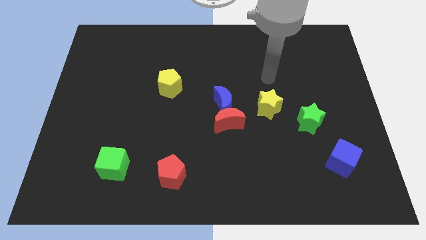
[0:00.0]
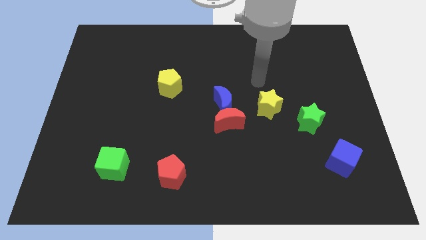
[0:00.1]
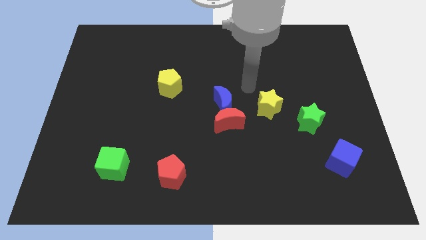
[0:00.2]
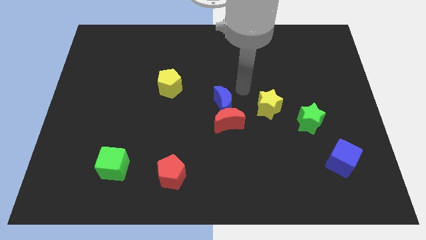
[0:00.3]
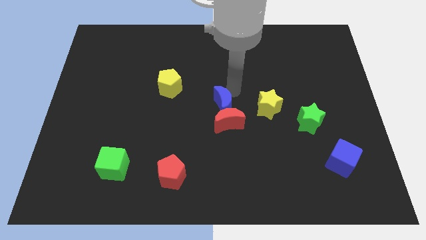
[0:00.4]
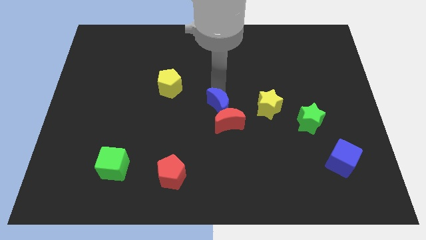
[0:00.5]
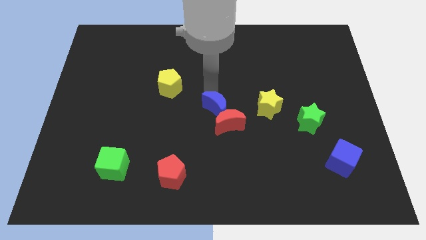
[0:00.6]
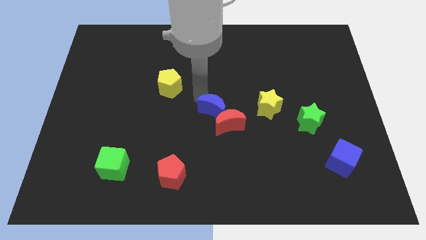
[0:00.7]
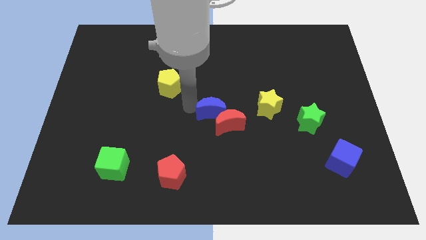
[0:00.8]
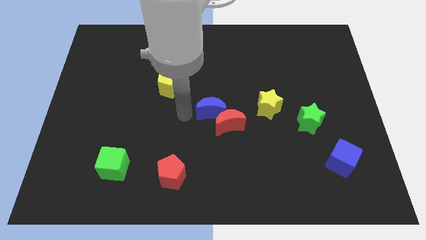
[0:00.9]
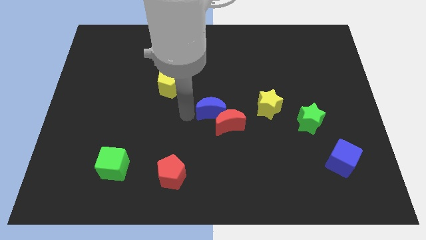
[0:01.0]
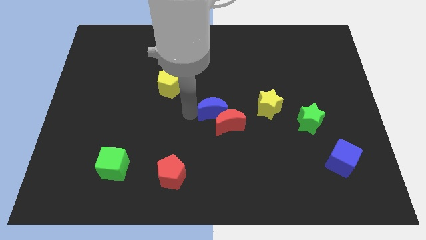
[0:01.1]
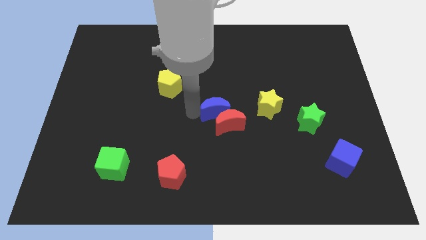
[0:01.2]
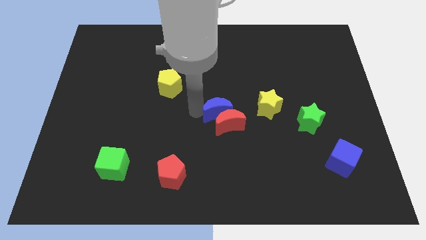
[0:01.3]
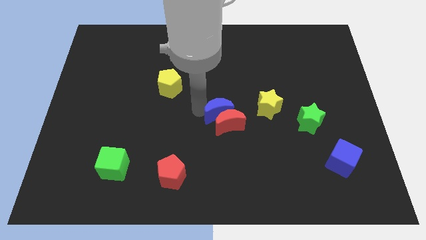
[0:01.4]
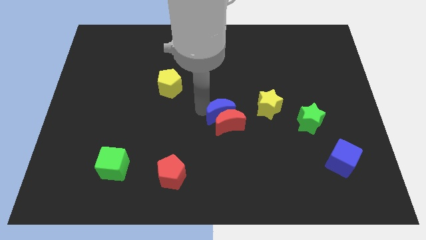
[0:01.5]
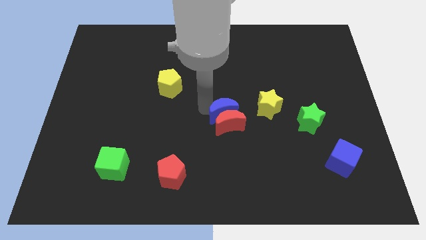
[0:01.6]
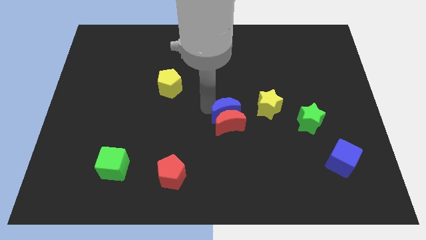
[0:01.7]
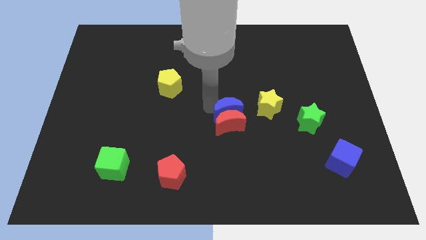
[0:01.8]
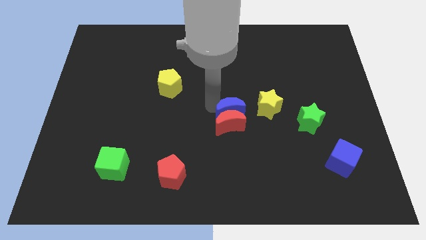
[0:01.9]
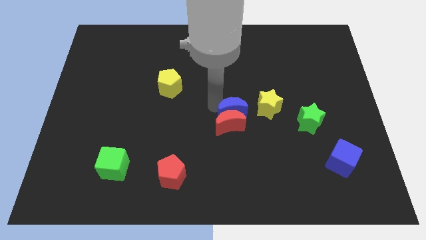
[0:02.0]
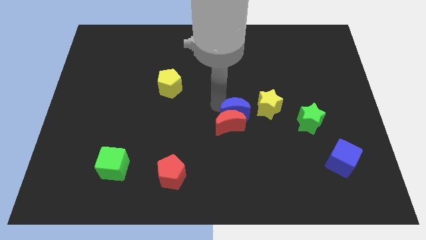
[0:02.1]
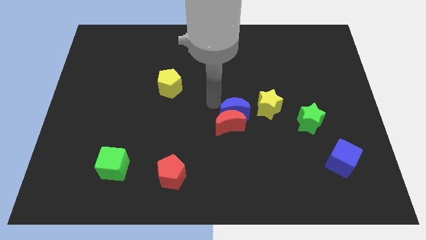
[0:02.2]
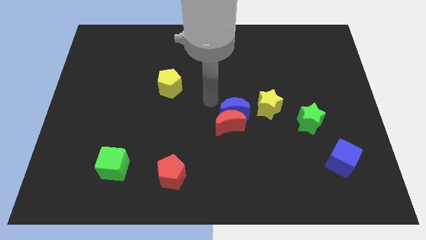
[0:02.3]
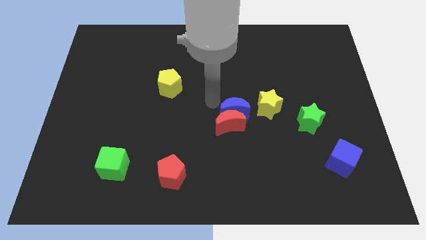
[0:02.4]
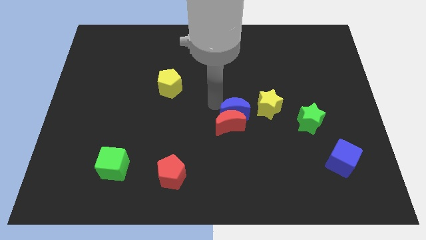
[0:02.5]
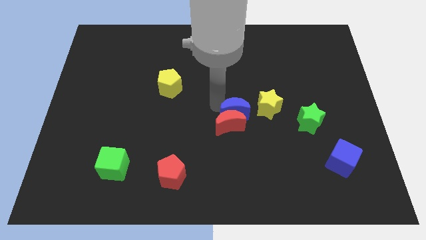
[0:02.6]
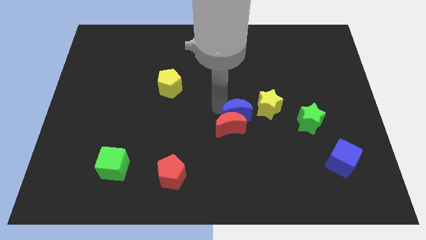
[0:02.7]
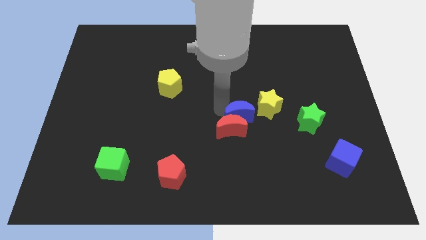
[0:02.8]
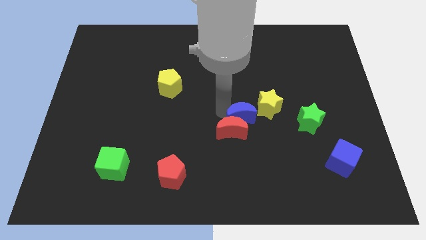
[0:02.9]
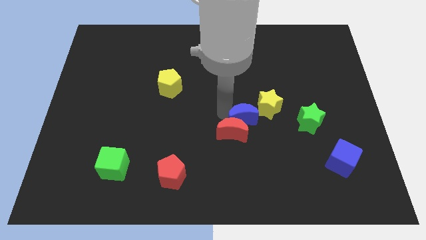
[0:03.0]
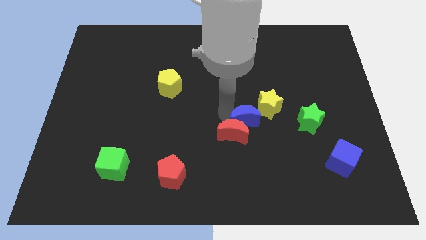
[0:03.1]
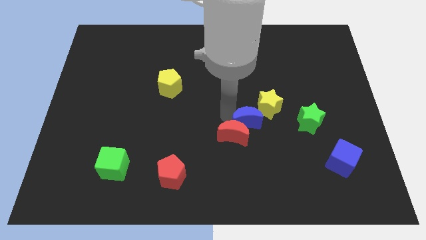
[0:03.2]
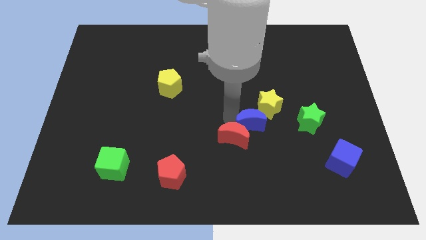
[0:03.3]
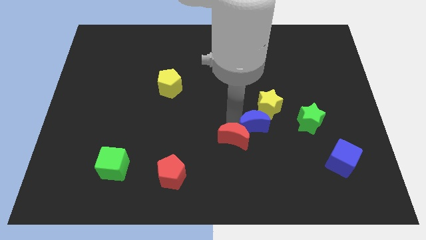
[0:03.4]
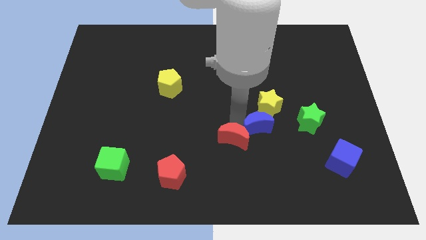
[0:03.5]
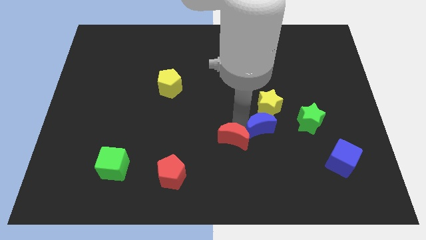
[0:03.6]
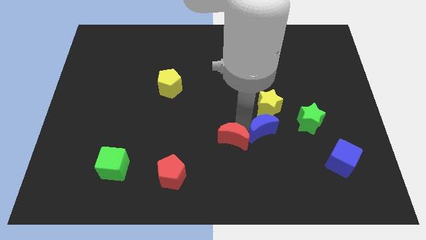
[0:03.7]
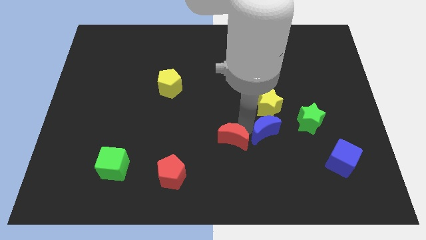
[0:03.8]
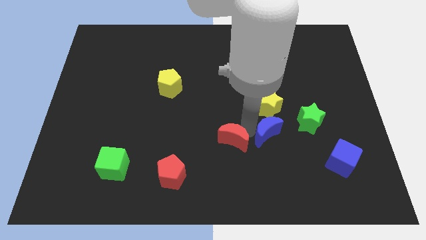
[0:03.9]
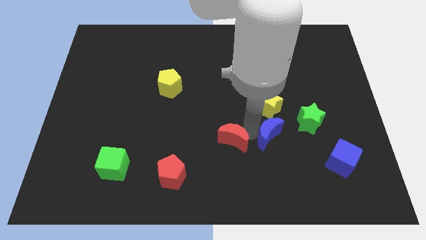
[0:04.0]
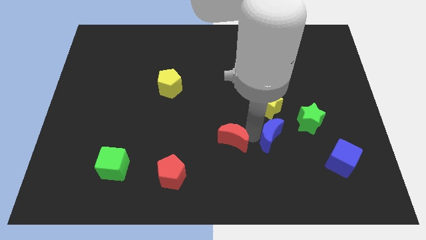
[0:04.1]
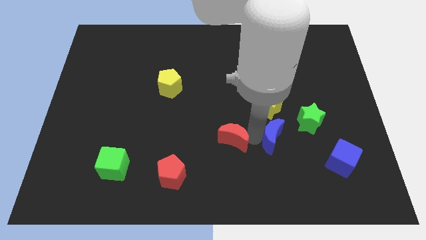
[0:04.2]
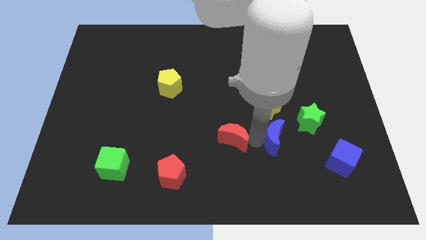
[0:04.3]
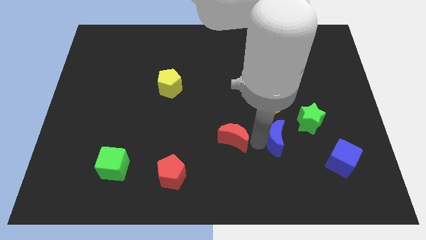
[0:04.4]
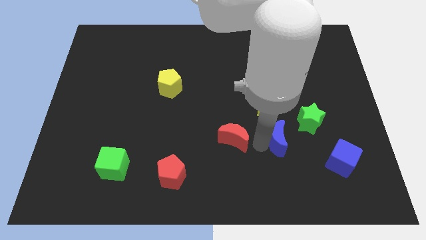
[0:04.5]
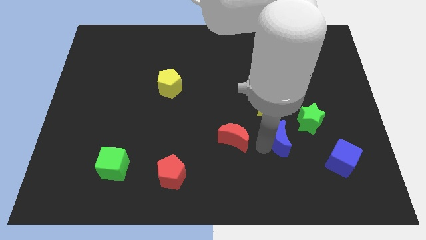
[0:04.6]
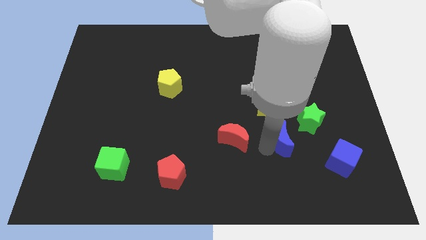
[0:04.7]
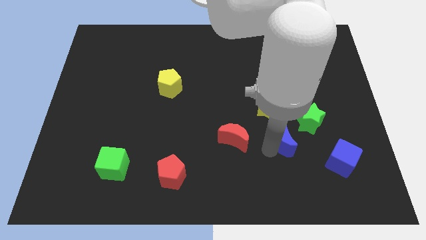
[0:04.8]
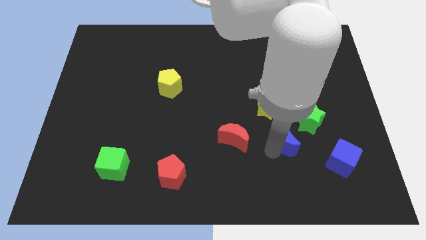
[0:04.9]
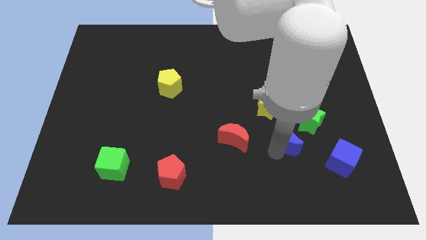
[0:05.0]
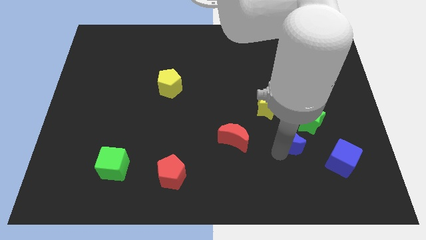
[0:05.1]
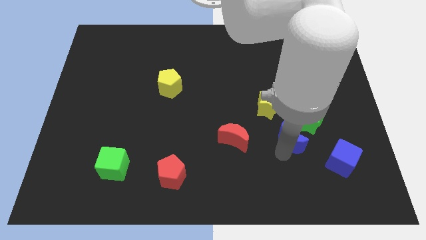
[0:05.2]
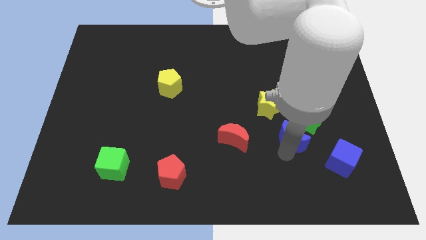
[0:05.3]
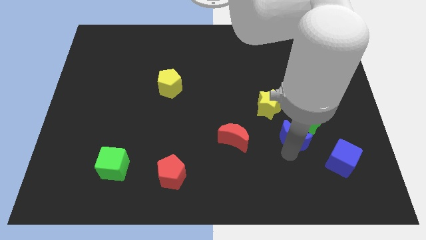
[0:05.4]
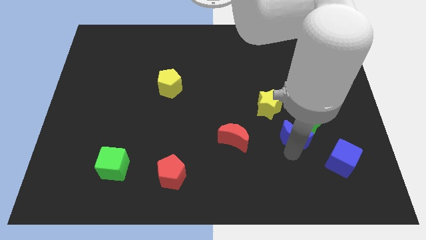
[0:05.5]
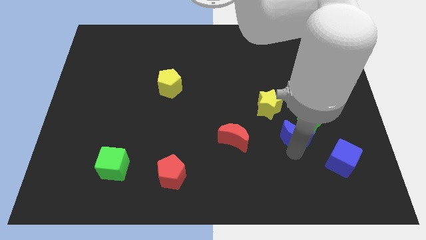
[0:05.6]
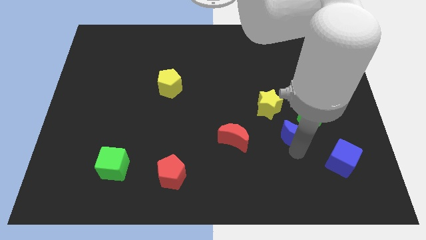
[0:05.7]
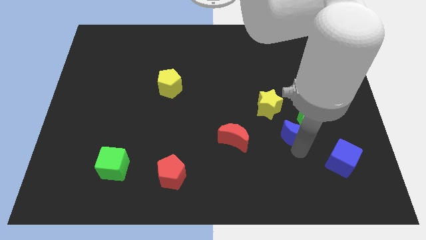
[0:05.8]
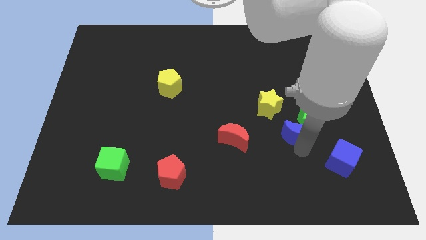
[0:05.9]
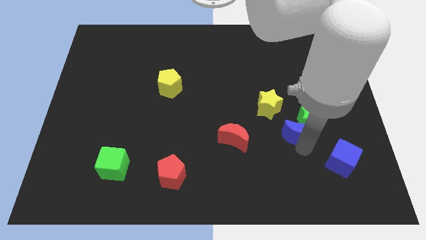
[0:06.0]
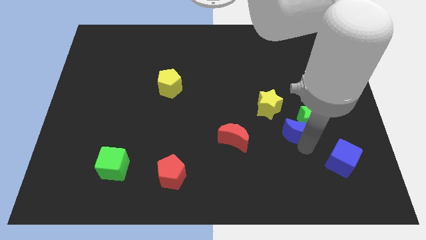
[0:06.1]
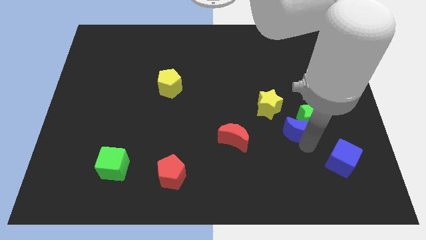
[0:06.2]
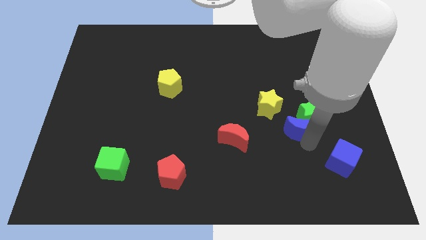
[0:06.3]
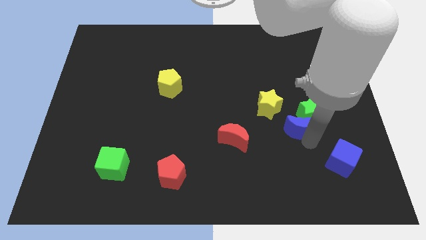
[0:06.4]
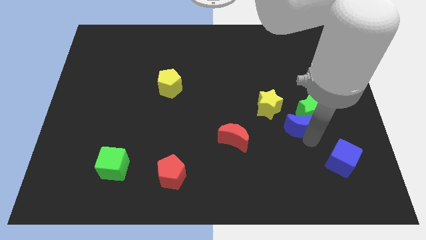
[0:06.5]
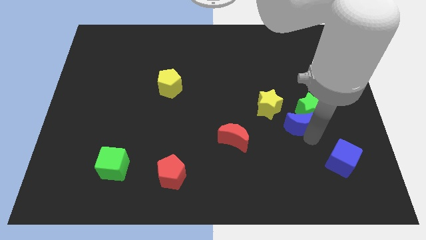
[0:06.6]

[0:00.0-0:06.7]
push the blue moon to the bottom right of the green star

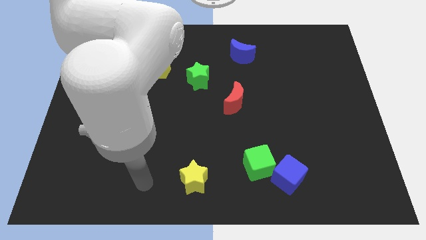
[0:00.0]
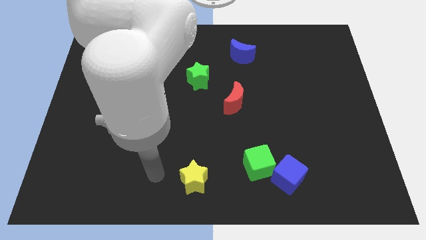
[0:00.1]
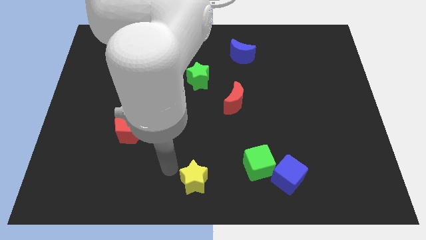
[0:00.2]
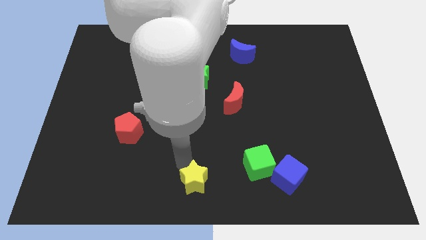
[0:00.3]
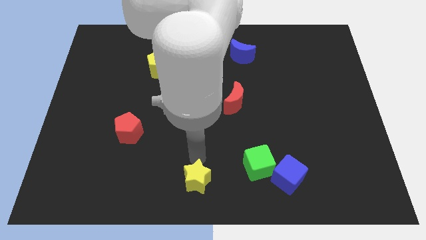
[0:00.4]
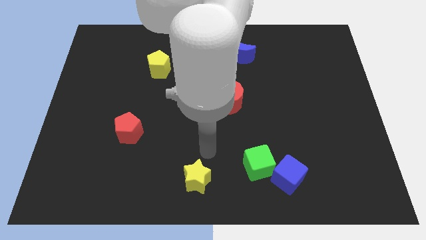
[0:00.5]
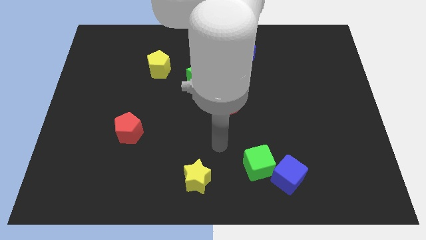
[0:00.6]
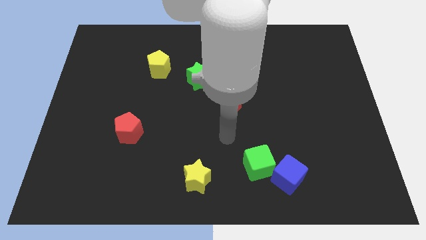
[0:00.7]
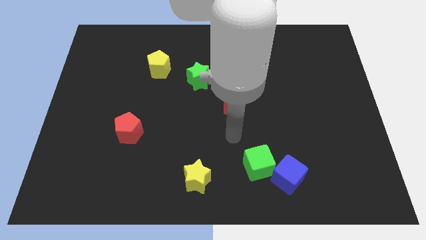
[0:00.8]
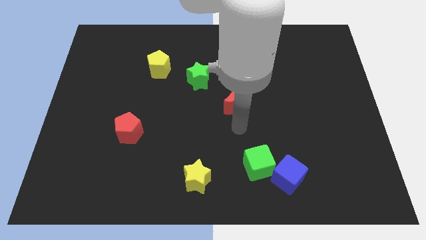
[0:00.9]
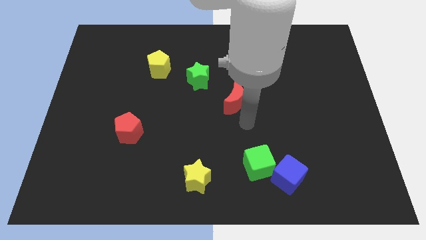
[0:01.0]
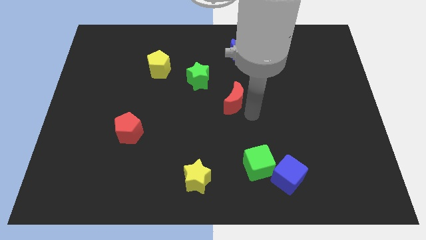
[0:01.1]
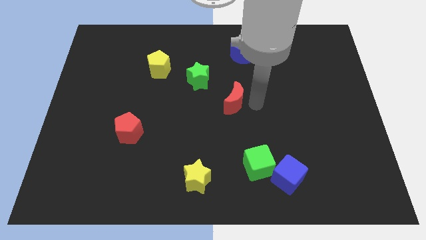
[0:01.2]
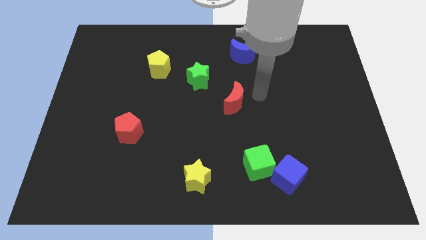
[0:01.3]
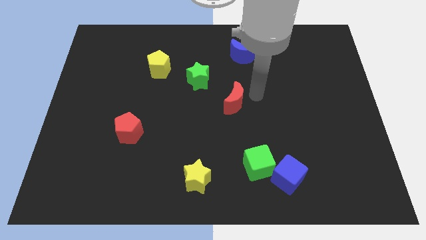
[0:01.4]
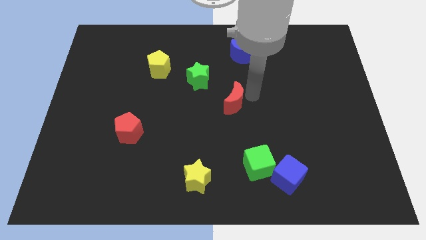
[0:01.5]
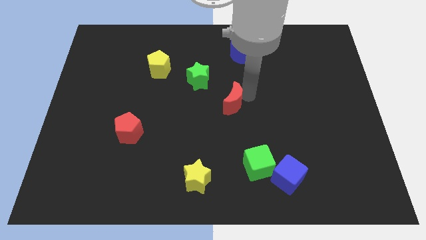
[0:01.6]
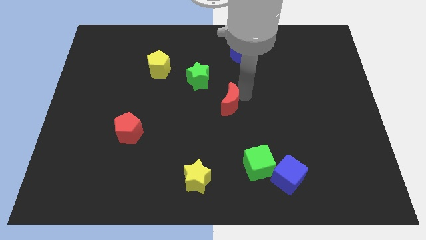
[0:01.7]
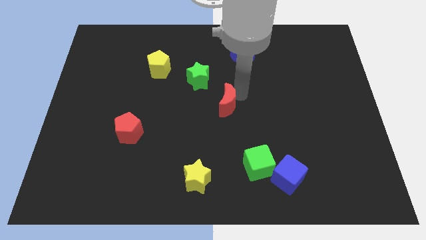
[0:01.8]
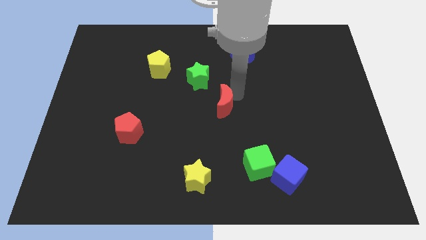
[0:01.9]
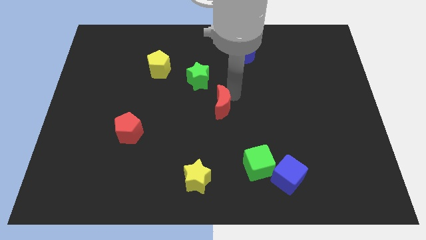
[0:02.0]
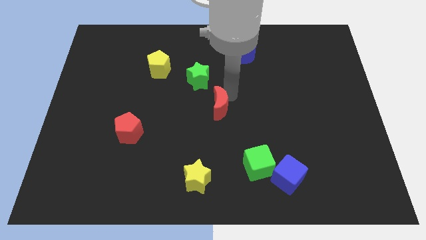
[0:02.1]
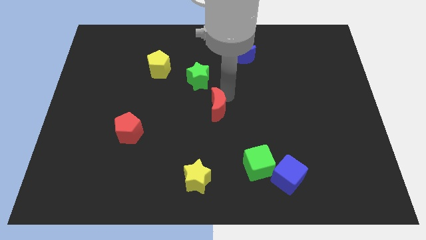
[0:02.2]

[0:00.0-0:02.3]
slide the red moon to the bottom side of the green star
